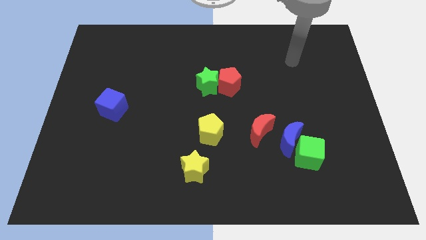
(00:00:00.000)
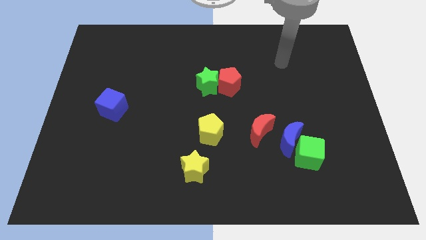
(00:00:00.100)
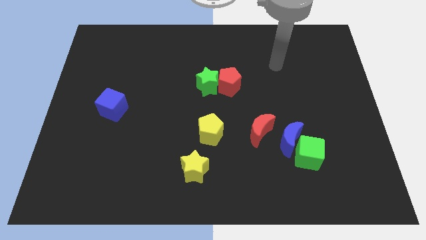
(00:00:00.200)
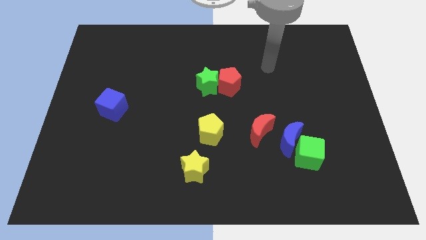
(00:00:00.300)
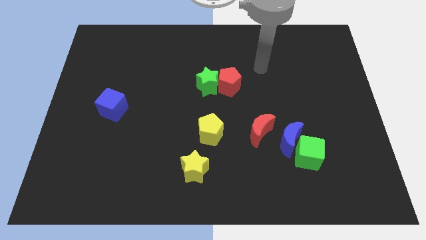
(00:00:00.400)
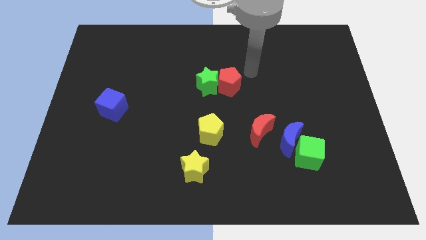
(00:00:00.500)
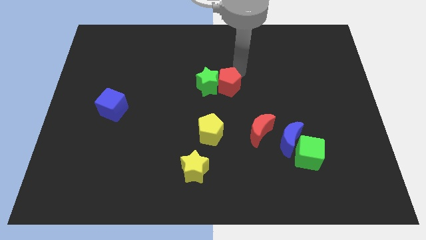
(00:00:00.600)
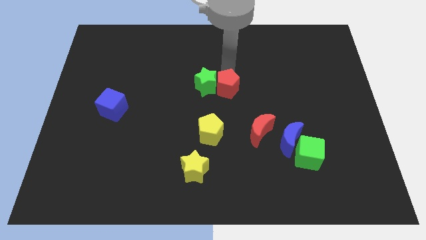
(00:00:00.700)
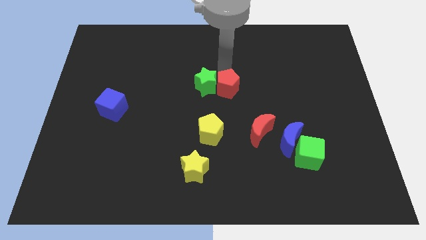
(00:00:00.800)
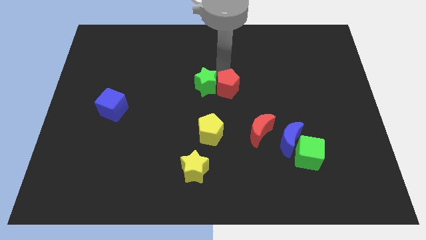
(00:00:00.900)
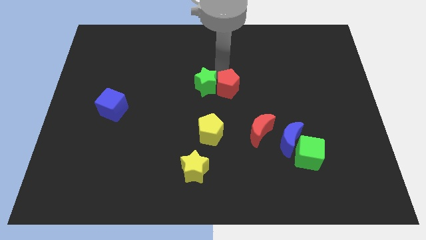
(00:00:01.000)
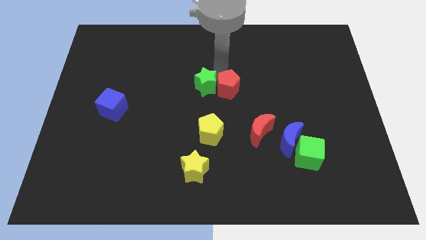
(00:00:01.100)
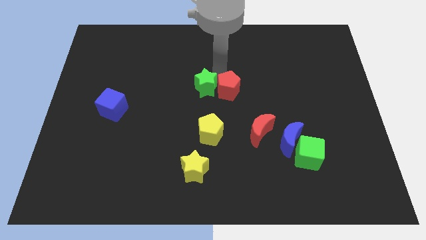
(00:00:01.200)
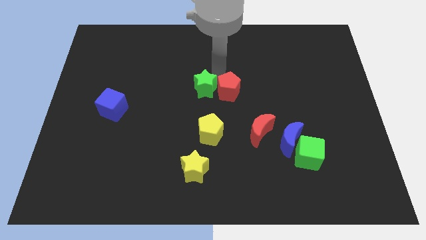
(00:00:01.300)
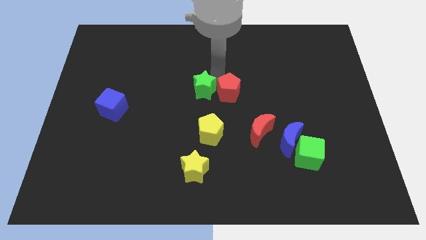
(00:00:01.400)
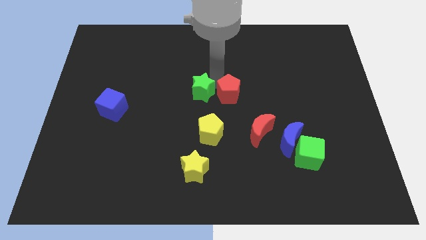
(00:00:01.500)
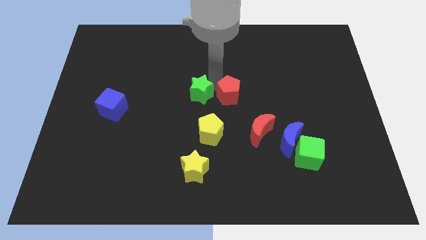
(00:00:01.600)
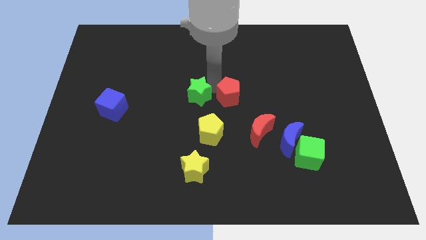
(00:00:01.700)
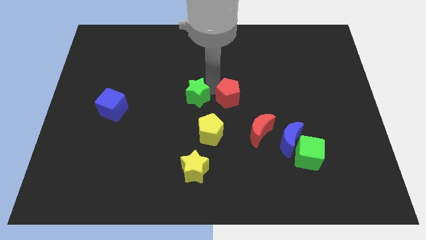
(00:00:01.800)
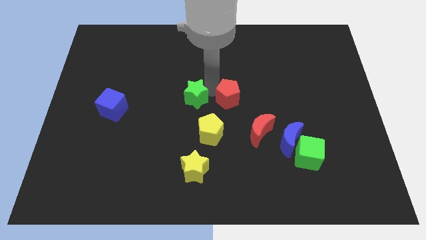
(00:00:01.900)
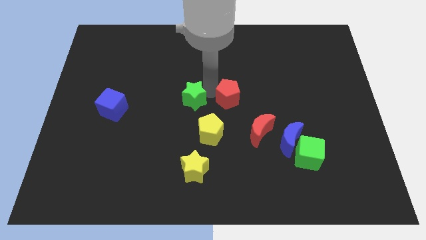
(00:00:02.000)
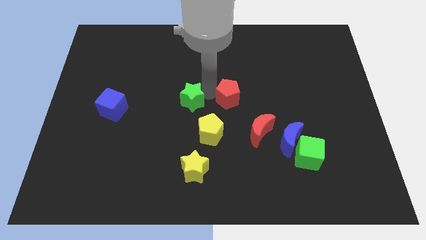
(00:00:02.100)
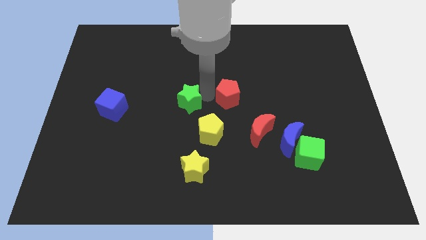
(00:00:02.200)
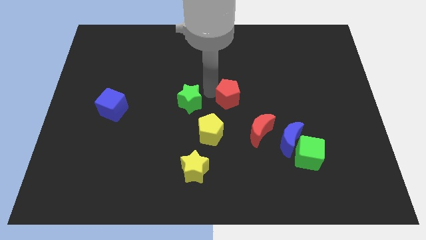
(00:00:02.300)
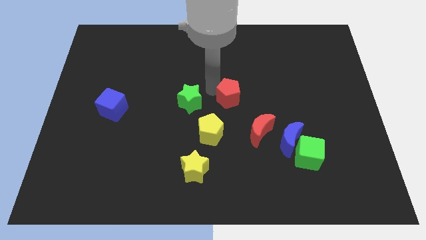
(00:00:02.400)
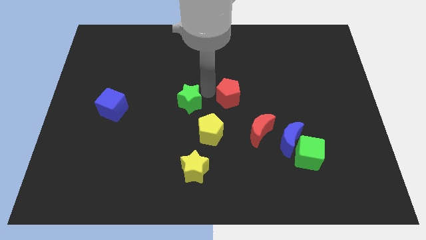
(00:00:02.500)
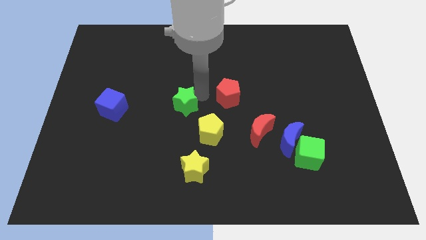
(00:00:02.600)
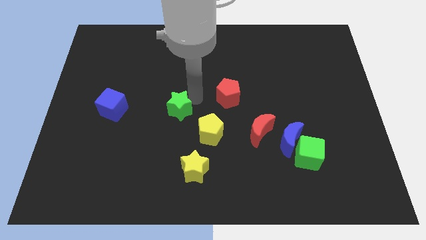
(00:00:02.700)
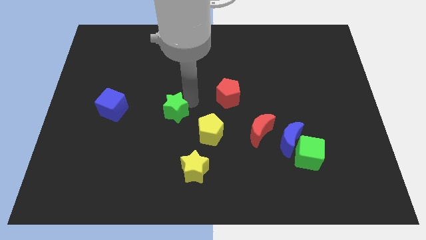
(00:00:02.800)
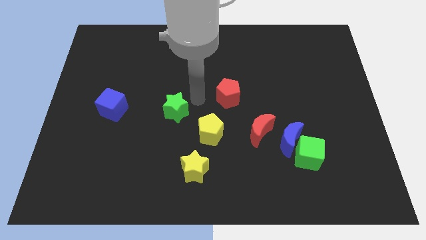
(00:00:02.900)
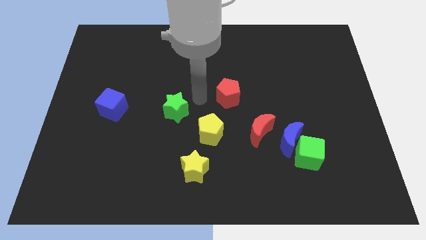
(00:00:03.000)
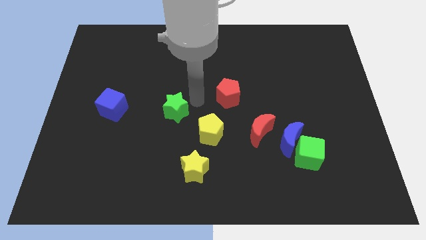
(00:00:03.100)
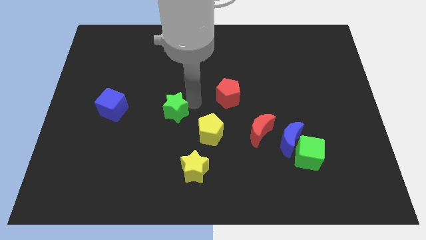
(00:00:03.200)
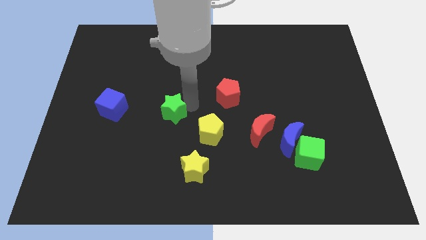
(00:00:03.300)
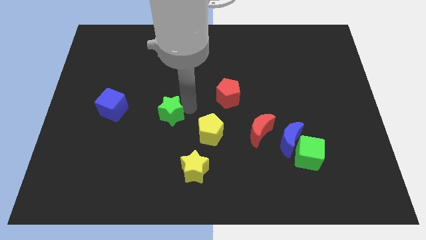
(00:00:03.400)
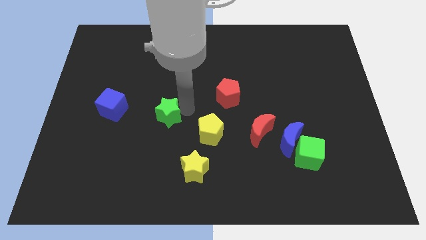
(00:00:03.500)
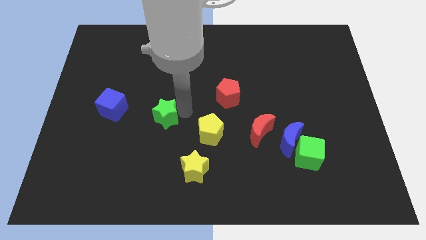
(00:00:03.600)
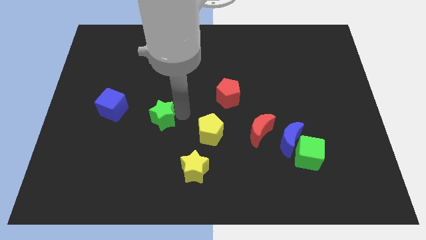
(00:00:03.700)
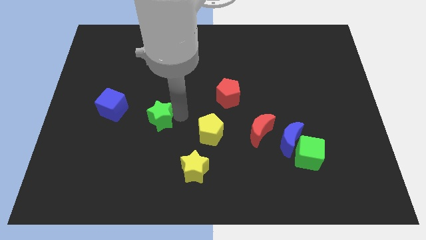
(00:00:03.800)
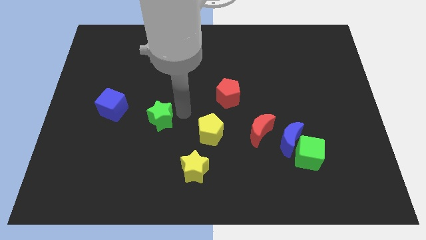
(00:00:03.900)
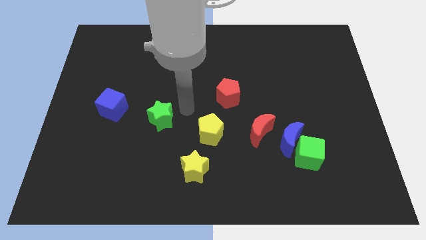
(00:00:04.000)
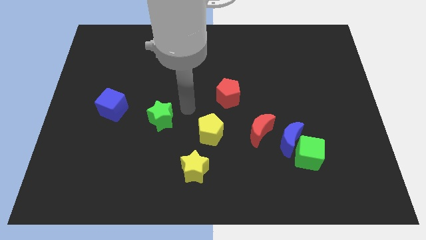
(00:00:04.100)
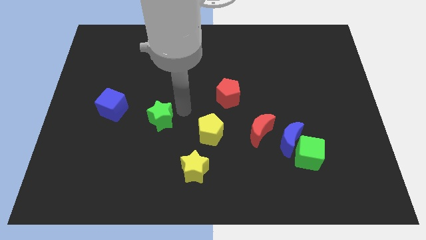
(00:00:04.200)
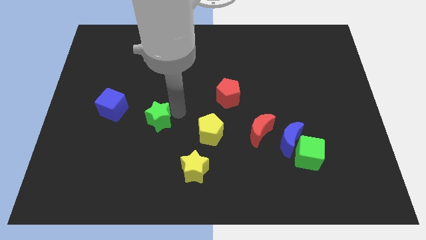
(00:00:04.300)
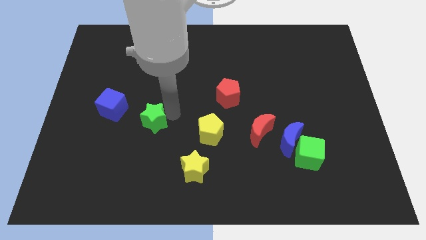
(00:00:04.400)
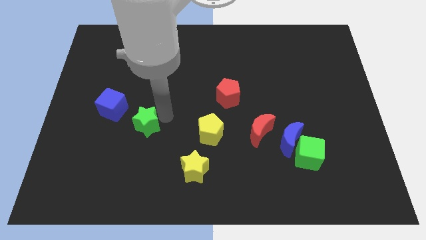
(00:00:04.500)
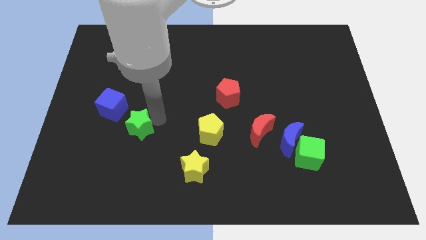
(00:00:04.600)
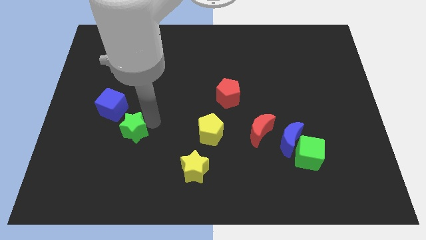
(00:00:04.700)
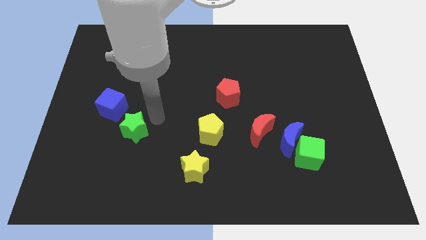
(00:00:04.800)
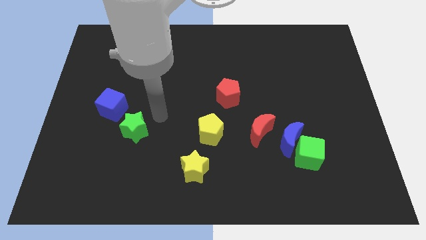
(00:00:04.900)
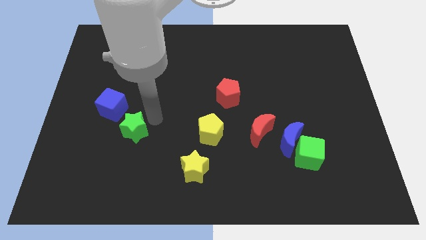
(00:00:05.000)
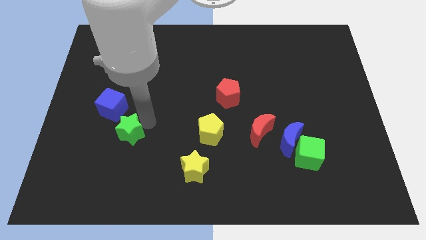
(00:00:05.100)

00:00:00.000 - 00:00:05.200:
slide the green star below the blue cube

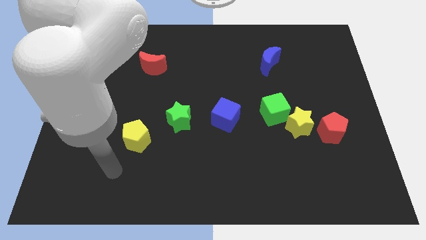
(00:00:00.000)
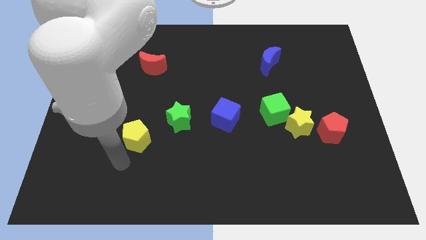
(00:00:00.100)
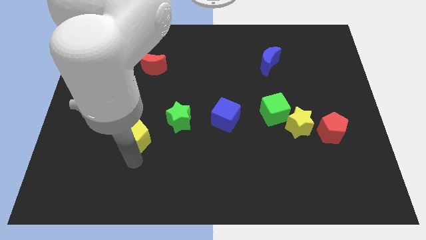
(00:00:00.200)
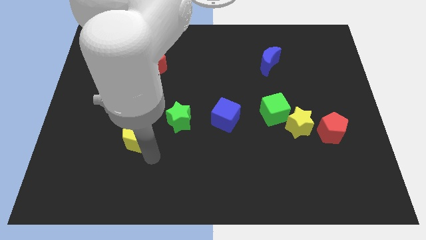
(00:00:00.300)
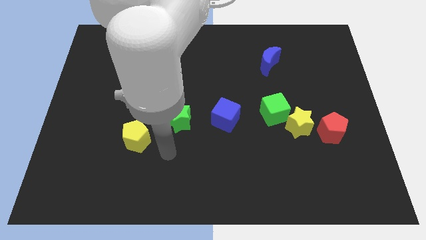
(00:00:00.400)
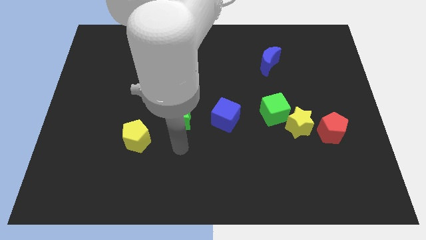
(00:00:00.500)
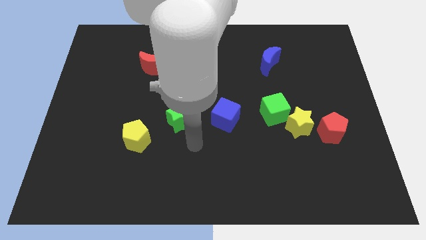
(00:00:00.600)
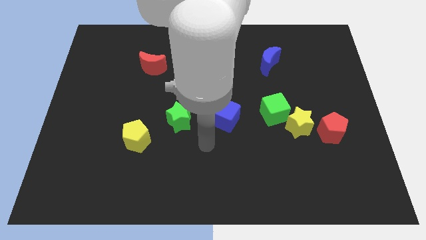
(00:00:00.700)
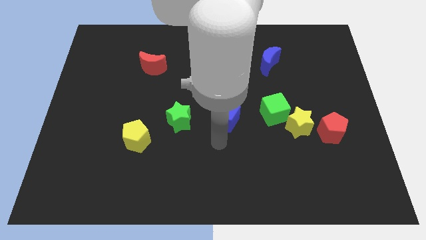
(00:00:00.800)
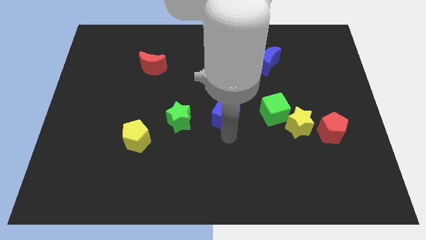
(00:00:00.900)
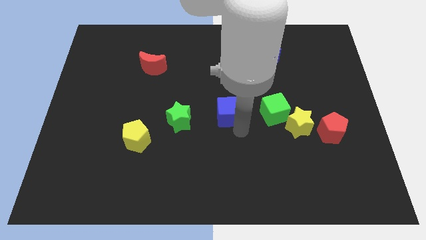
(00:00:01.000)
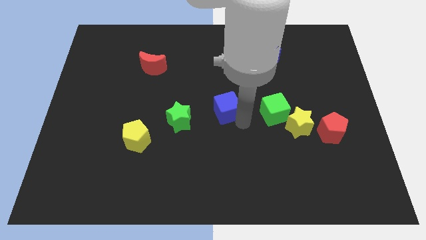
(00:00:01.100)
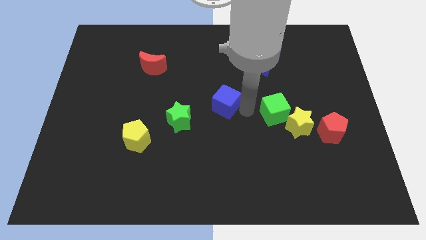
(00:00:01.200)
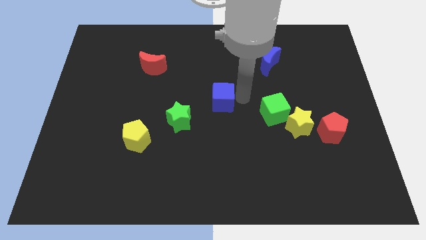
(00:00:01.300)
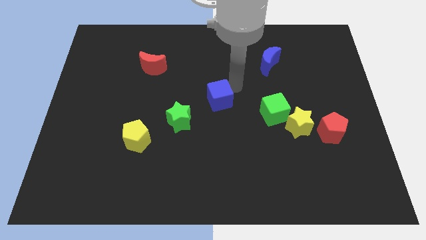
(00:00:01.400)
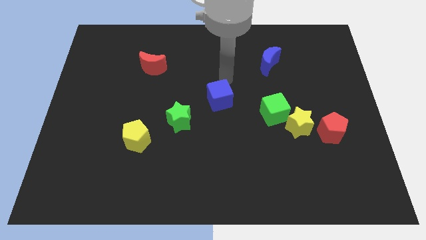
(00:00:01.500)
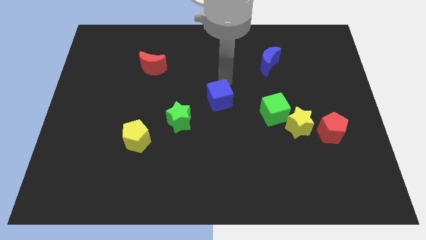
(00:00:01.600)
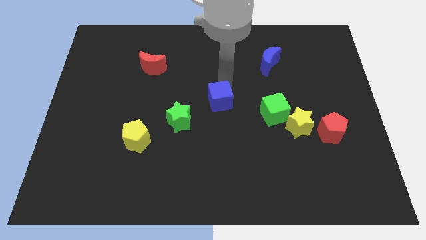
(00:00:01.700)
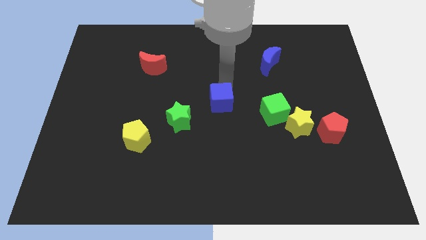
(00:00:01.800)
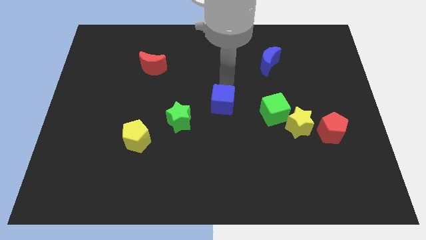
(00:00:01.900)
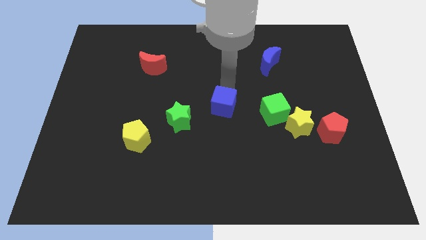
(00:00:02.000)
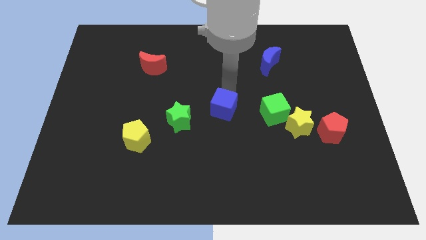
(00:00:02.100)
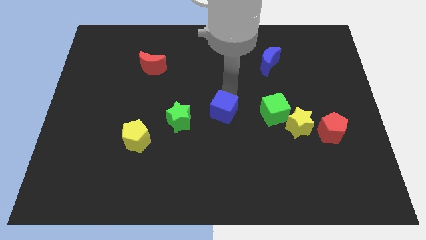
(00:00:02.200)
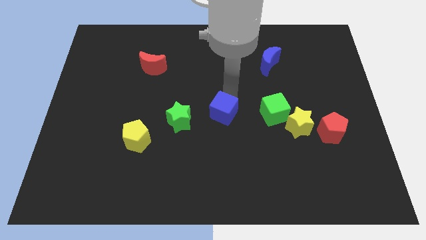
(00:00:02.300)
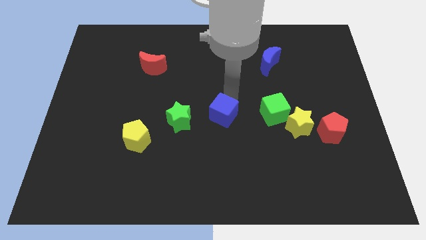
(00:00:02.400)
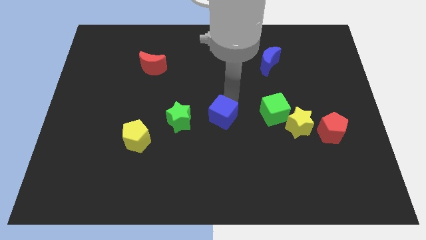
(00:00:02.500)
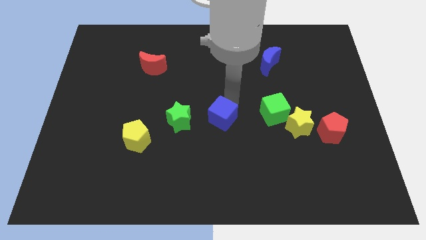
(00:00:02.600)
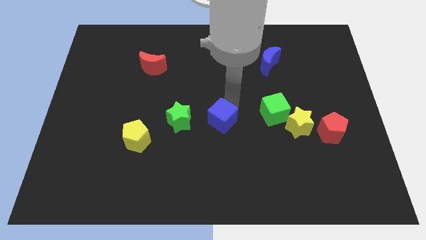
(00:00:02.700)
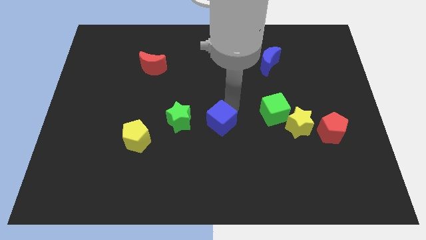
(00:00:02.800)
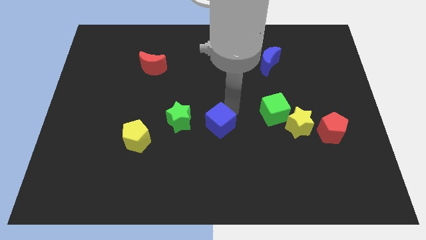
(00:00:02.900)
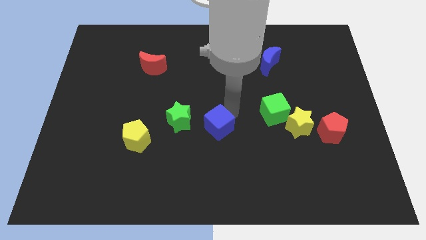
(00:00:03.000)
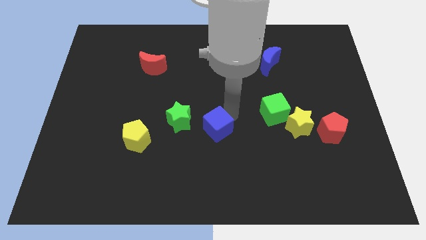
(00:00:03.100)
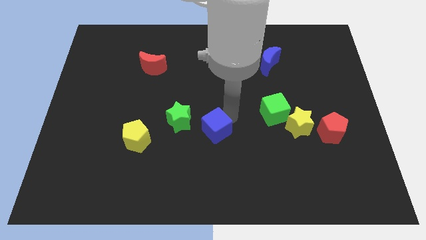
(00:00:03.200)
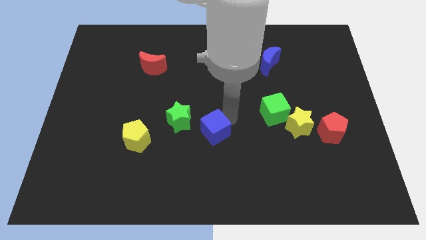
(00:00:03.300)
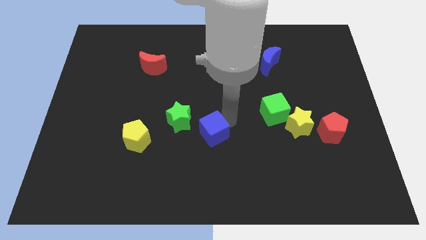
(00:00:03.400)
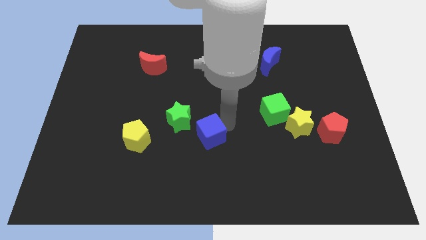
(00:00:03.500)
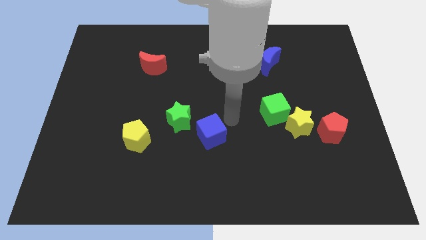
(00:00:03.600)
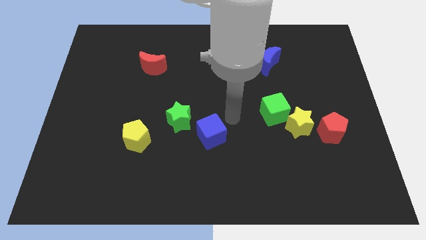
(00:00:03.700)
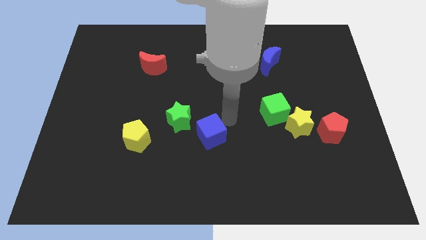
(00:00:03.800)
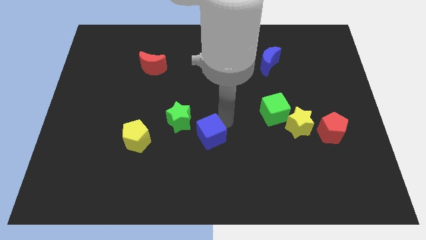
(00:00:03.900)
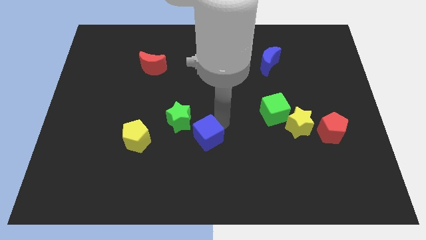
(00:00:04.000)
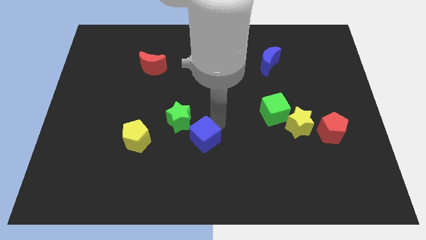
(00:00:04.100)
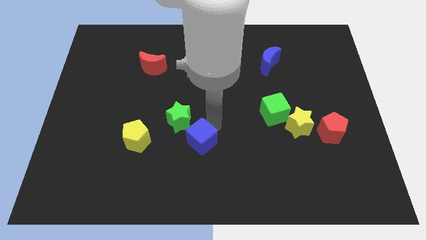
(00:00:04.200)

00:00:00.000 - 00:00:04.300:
push the blue cube to the bottom of the green star
